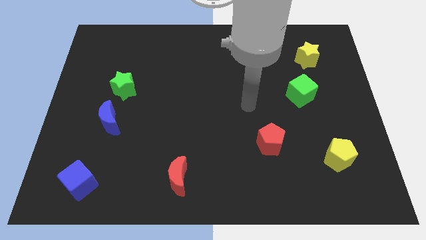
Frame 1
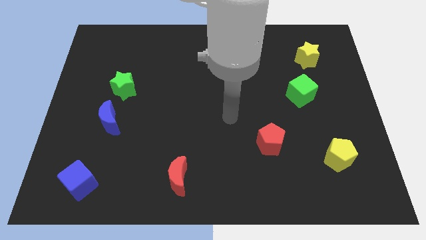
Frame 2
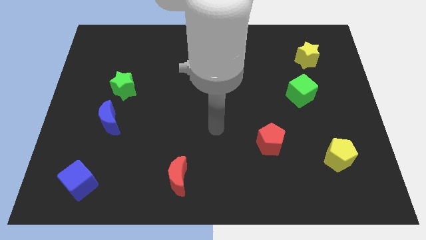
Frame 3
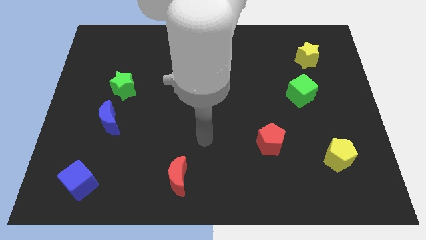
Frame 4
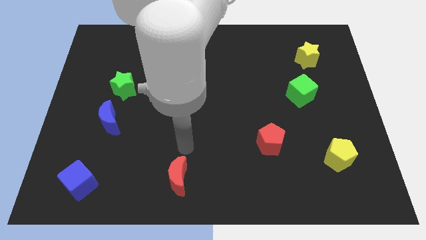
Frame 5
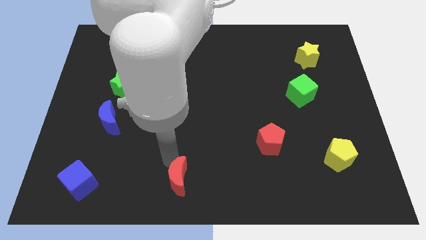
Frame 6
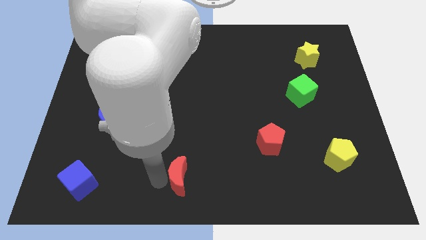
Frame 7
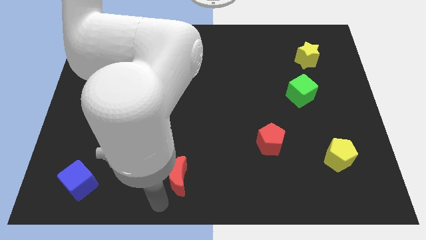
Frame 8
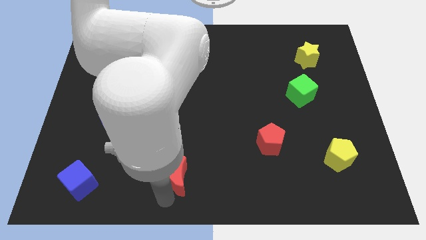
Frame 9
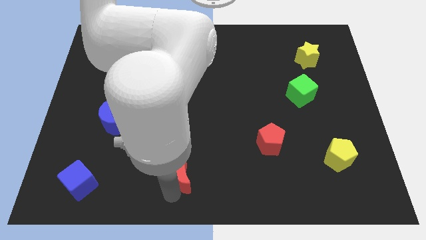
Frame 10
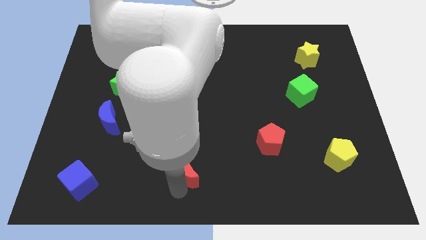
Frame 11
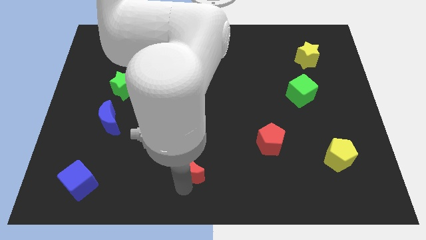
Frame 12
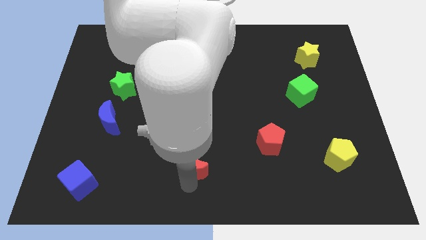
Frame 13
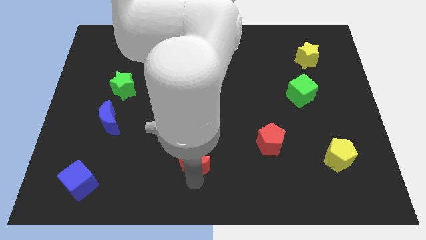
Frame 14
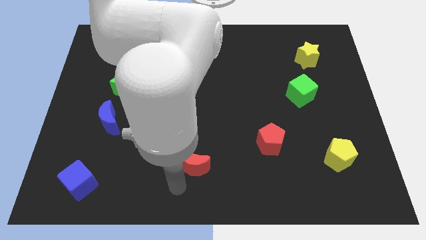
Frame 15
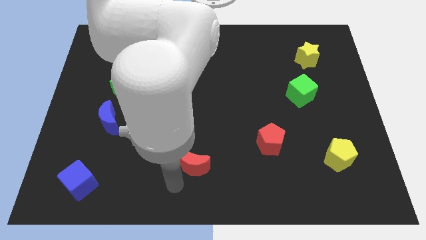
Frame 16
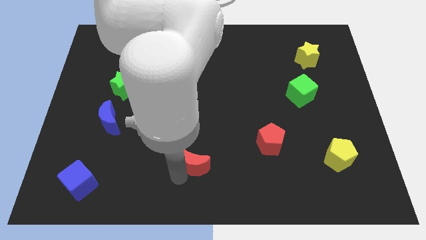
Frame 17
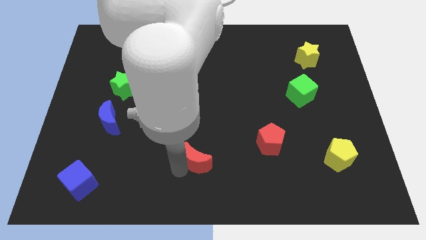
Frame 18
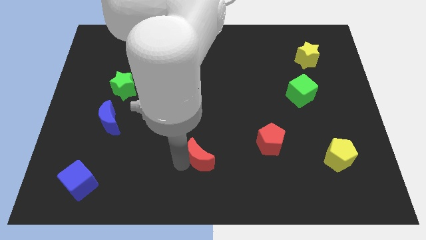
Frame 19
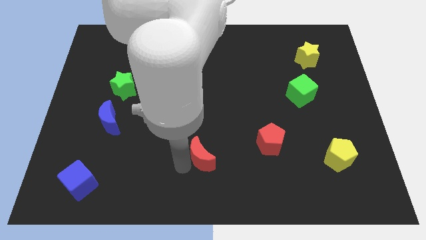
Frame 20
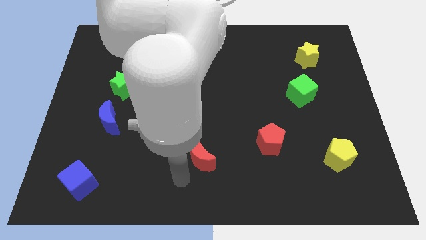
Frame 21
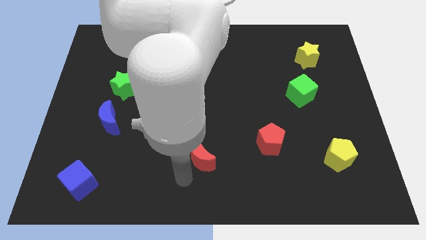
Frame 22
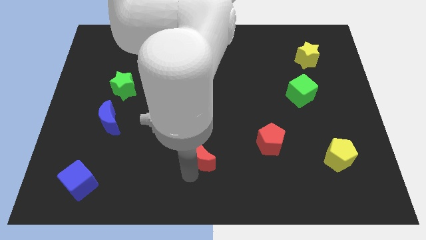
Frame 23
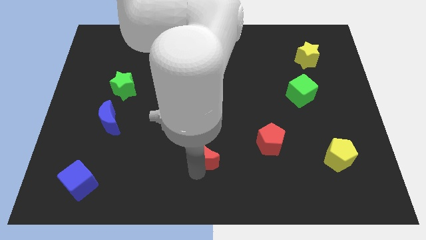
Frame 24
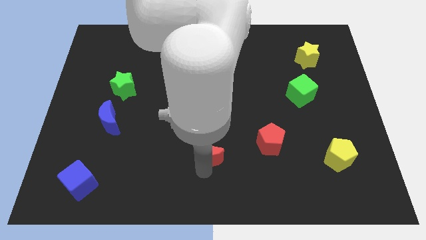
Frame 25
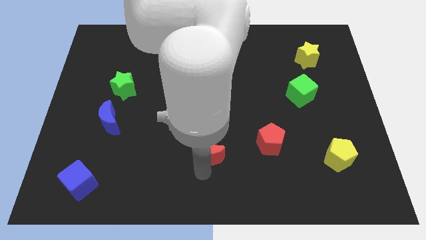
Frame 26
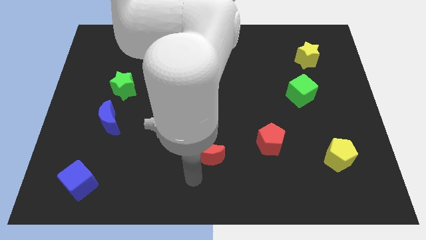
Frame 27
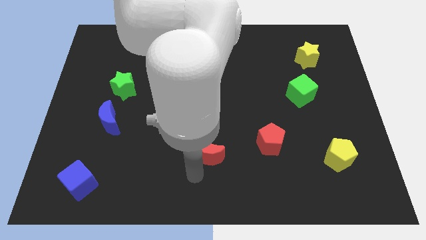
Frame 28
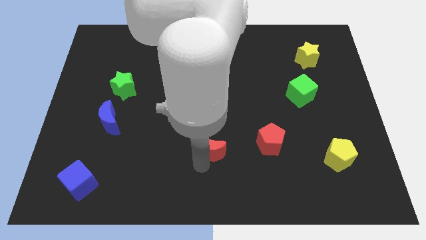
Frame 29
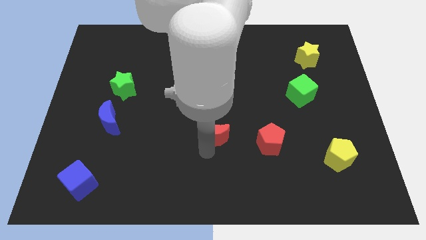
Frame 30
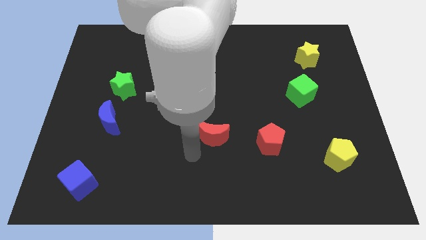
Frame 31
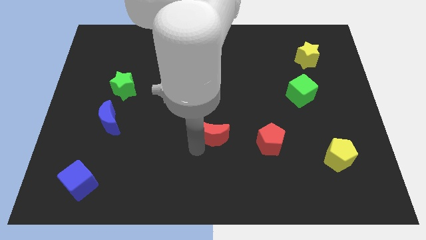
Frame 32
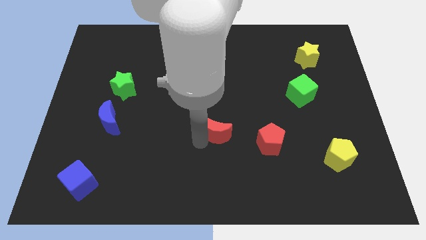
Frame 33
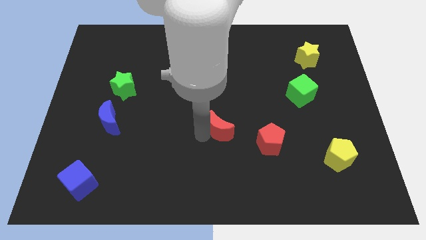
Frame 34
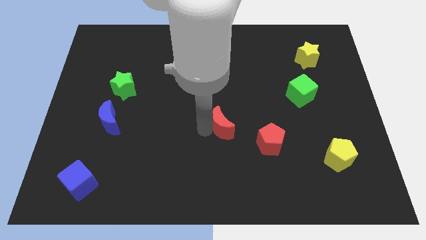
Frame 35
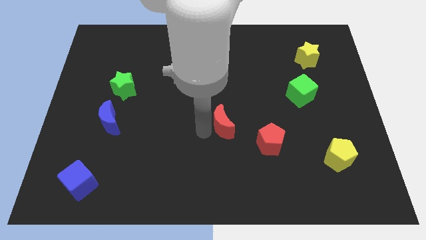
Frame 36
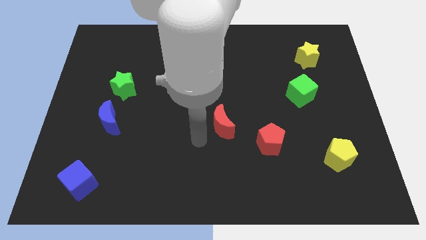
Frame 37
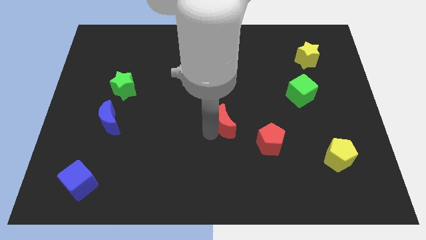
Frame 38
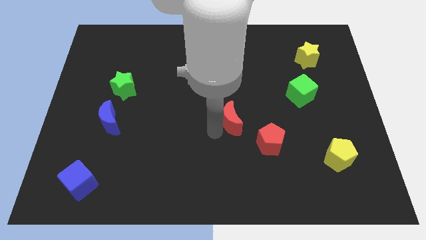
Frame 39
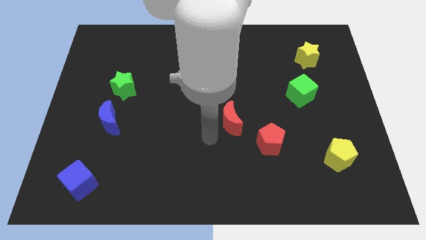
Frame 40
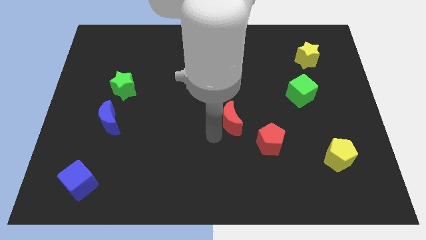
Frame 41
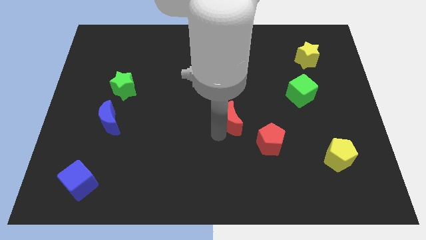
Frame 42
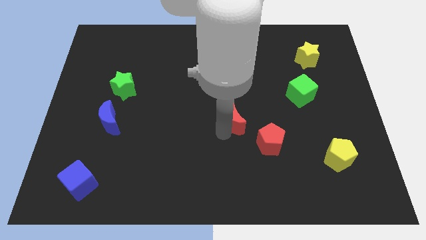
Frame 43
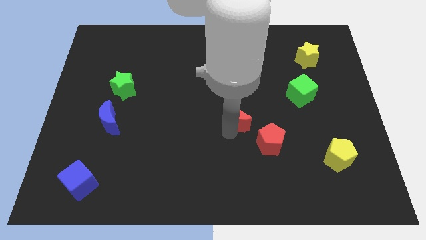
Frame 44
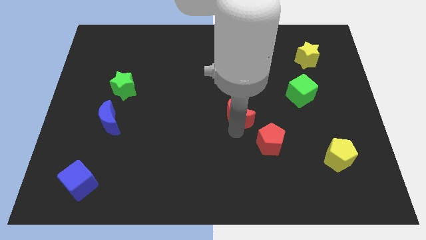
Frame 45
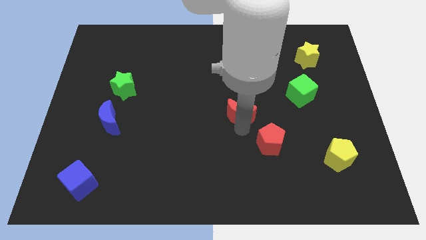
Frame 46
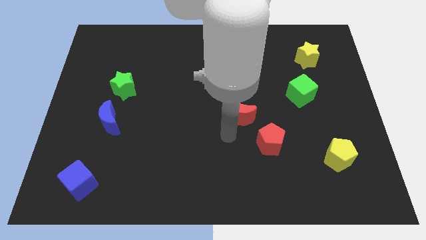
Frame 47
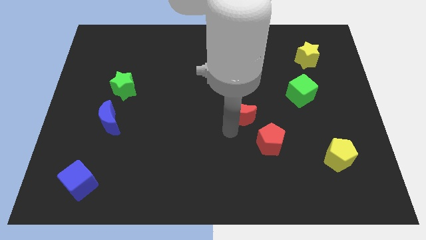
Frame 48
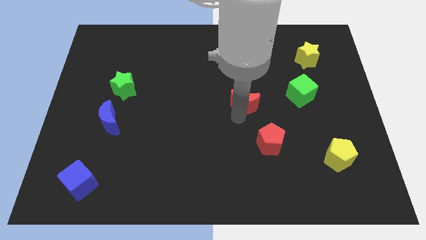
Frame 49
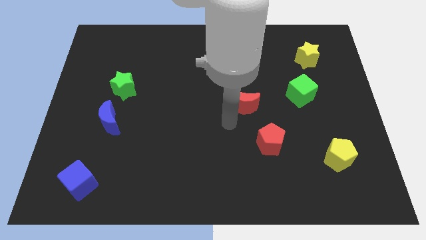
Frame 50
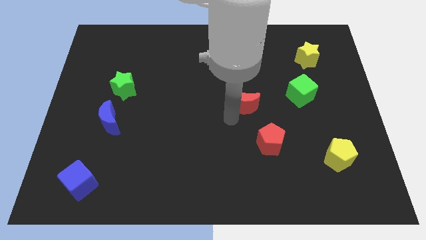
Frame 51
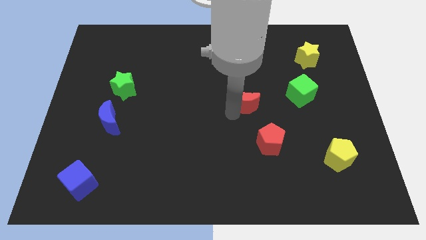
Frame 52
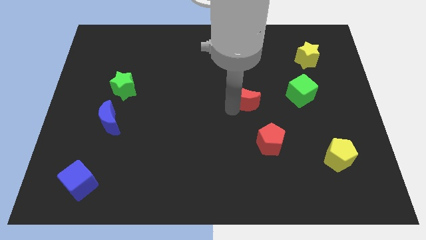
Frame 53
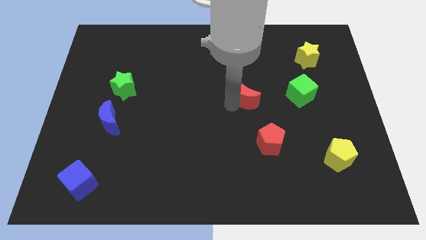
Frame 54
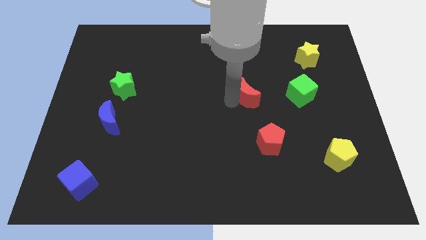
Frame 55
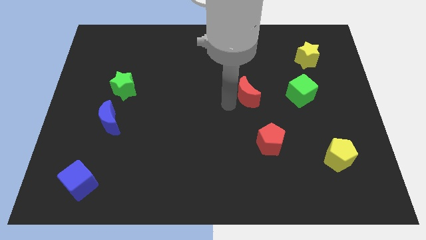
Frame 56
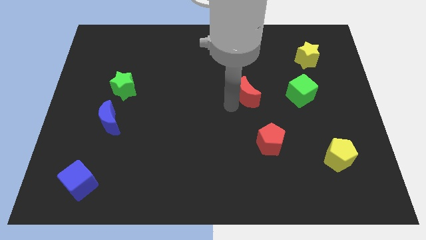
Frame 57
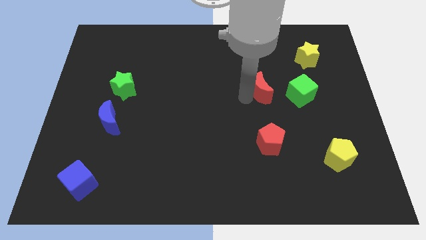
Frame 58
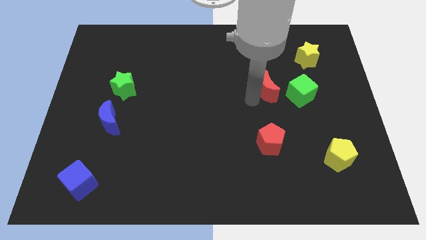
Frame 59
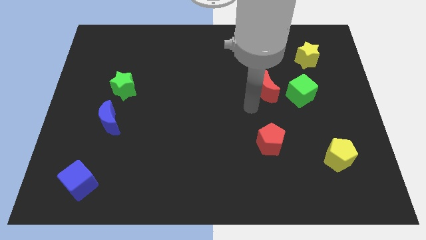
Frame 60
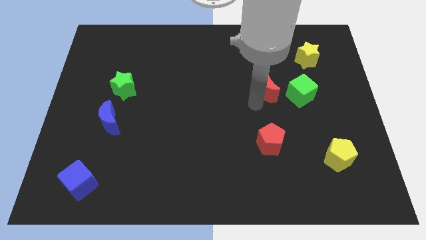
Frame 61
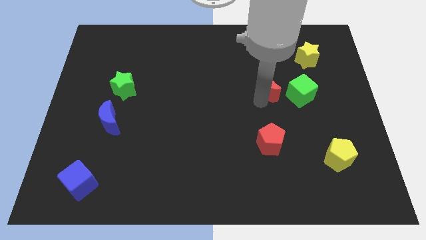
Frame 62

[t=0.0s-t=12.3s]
put the red moon to the top left side of the green cube

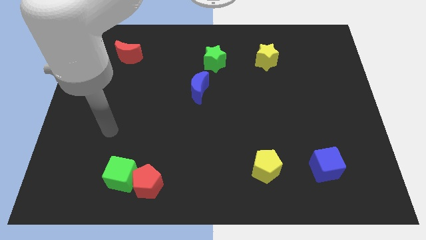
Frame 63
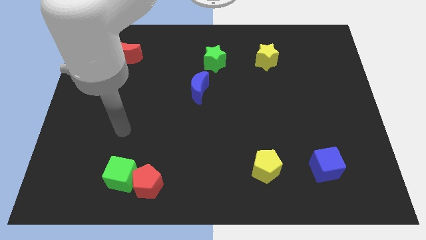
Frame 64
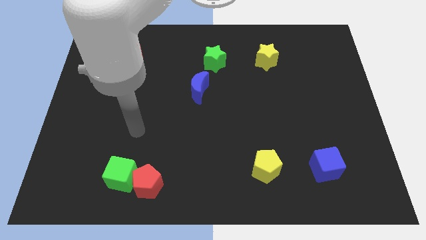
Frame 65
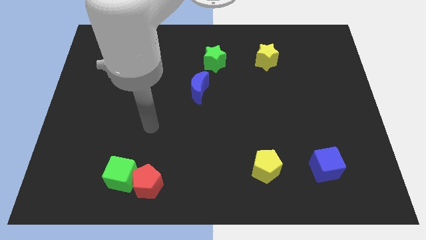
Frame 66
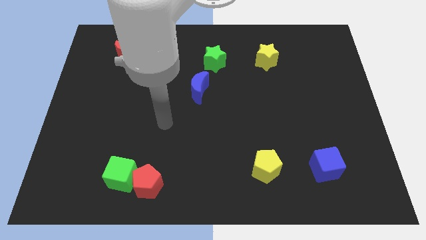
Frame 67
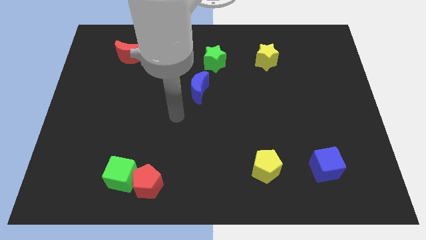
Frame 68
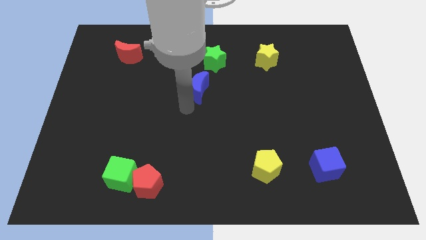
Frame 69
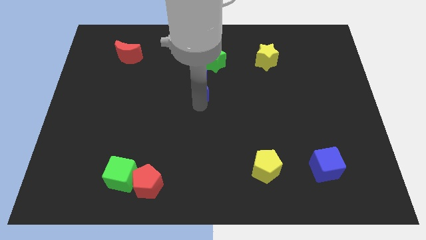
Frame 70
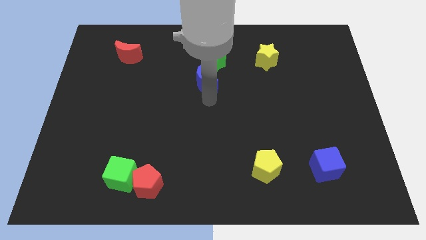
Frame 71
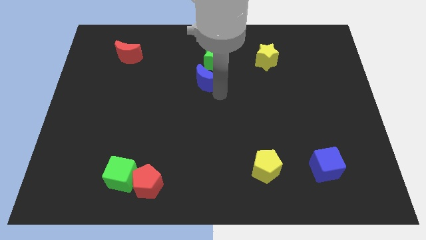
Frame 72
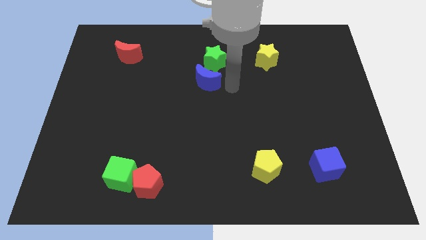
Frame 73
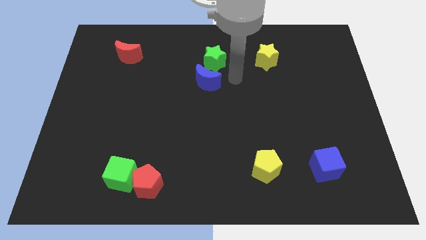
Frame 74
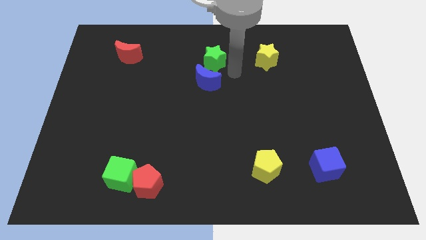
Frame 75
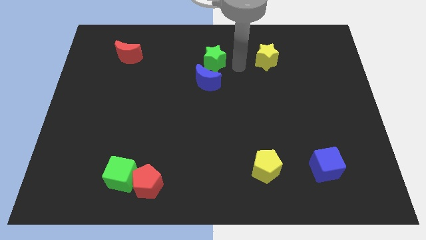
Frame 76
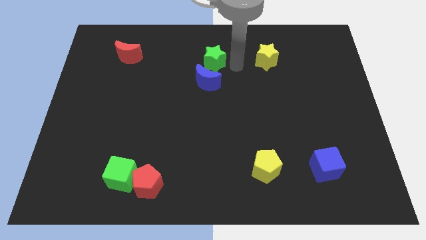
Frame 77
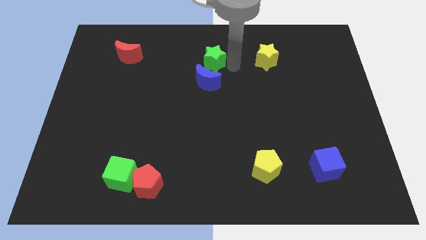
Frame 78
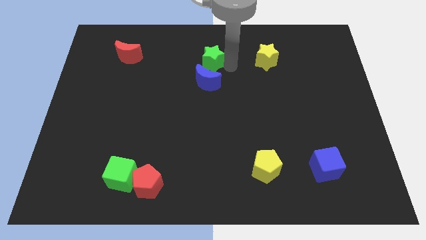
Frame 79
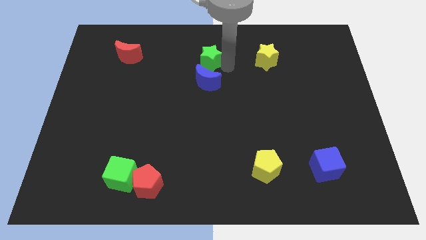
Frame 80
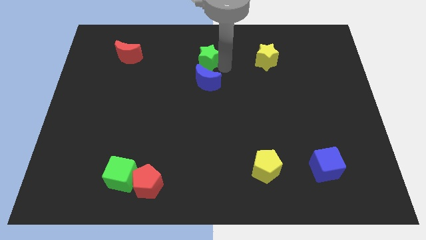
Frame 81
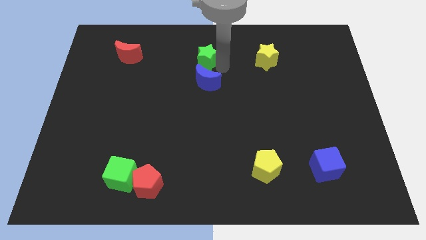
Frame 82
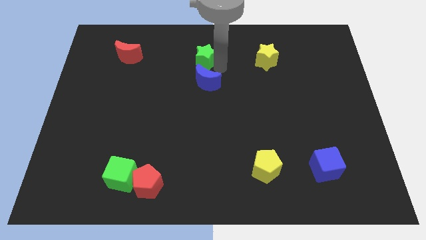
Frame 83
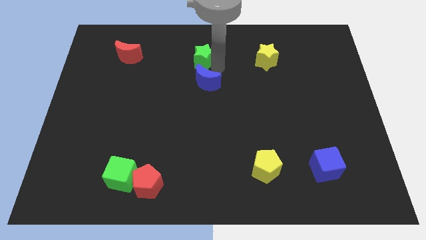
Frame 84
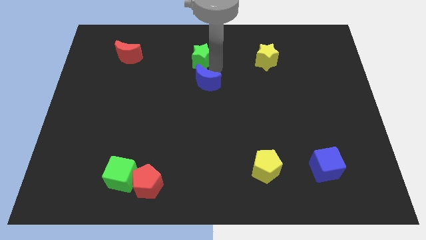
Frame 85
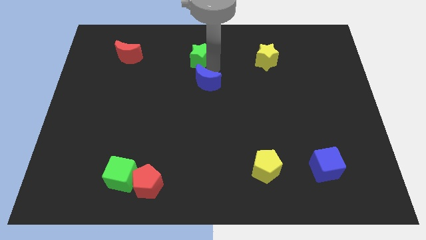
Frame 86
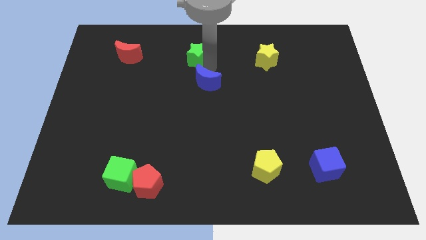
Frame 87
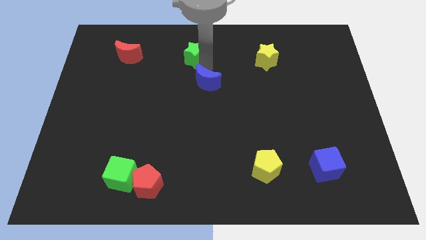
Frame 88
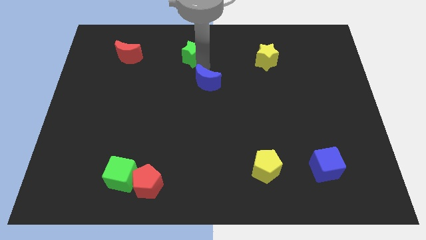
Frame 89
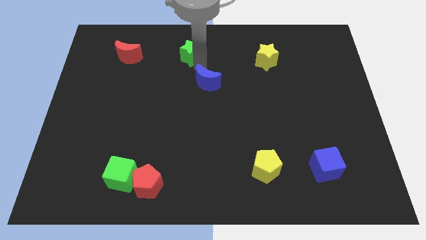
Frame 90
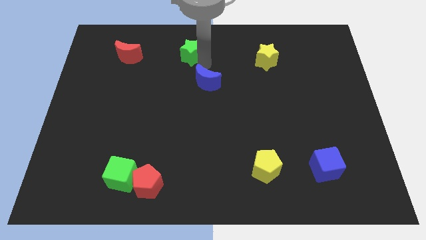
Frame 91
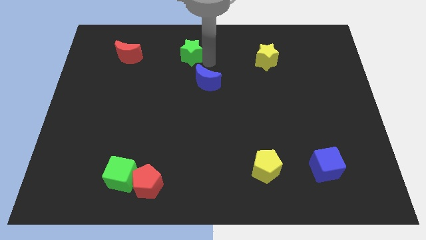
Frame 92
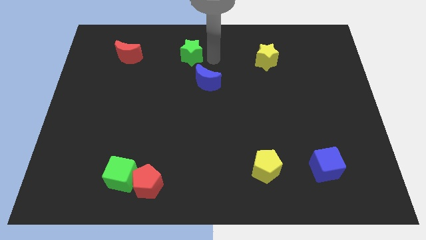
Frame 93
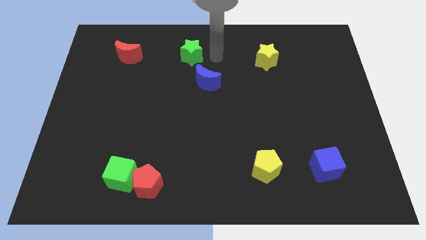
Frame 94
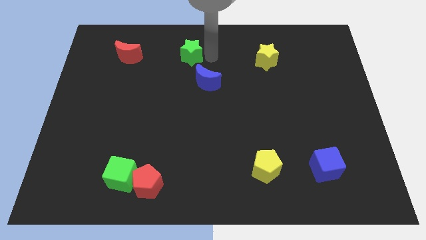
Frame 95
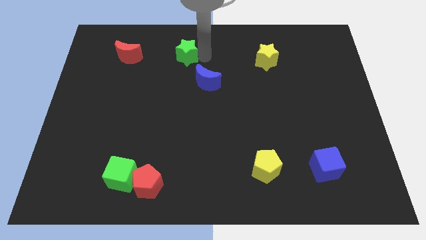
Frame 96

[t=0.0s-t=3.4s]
slide the green star to the right side of the red moon
